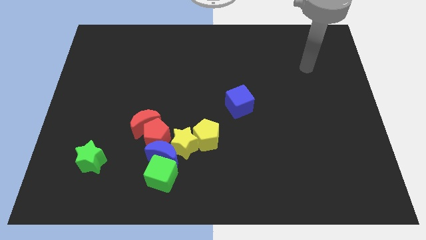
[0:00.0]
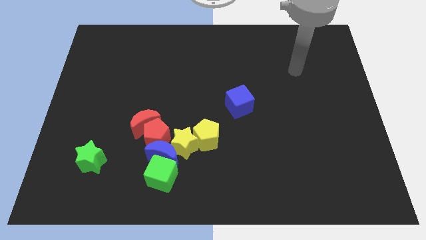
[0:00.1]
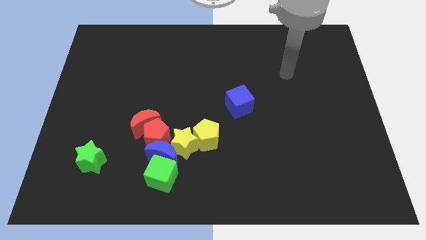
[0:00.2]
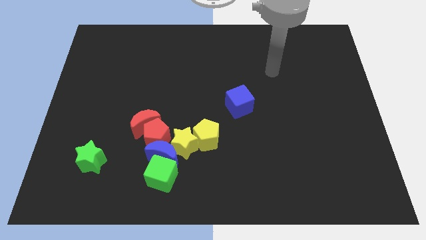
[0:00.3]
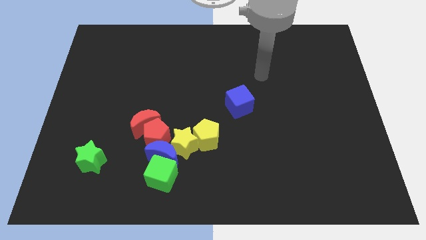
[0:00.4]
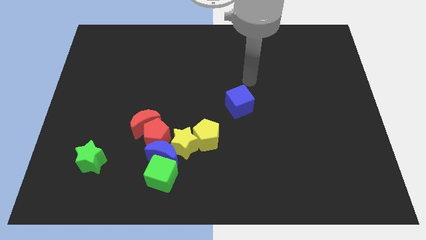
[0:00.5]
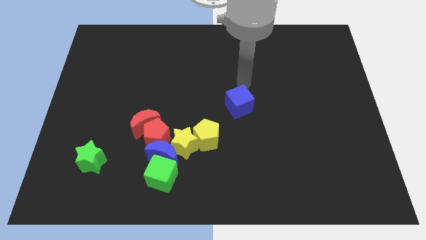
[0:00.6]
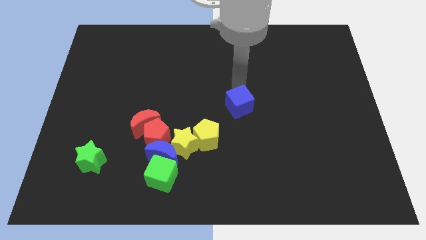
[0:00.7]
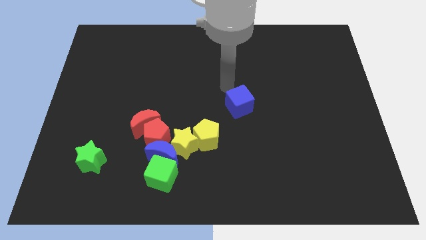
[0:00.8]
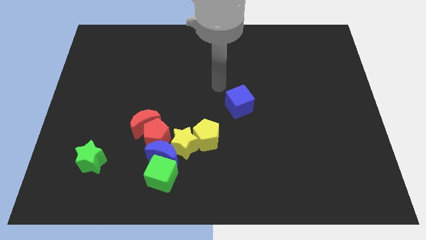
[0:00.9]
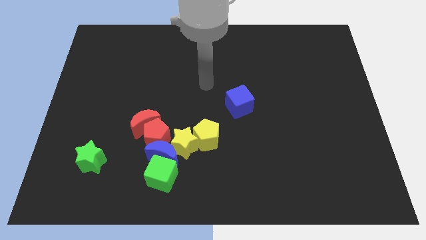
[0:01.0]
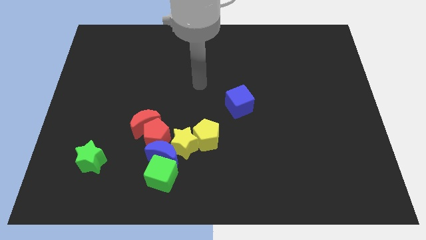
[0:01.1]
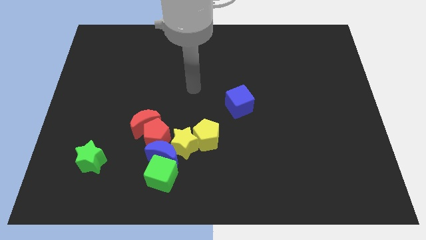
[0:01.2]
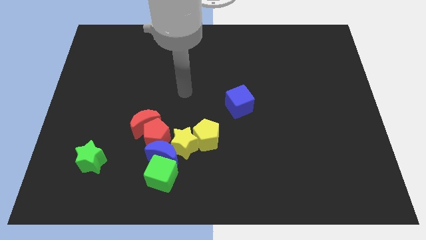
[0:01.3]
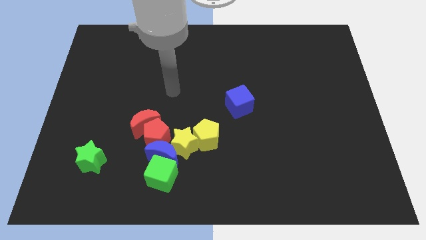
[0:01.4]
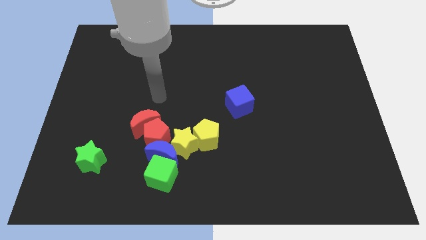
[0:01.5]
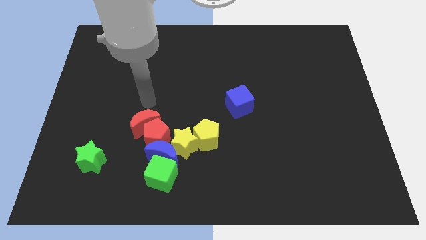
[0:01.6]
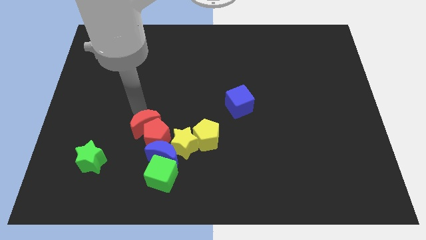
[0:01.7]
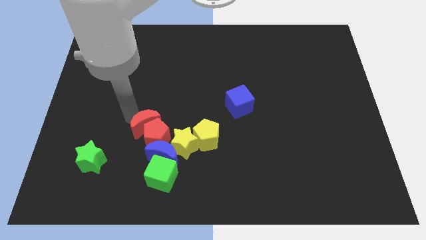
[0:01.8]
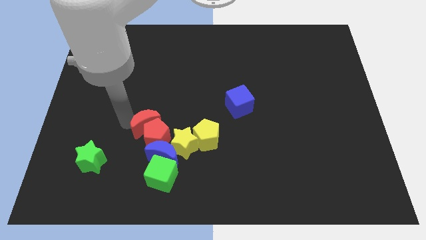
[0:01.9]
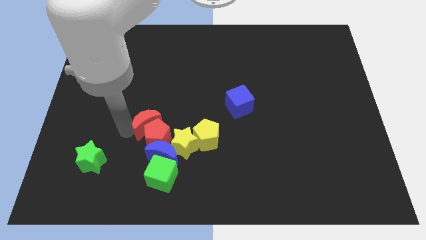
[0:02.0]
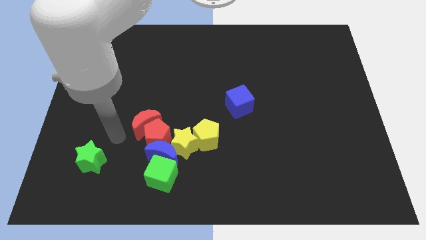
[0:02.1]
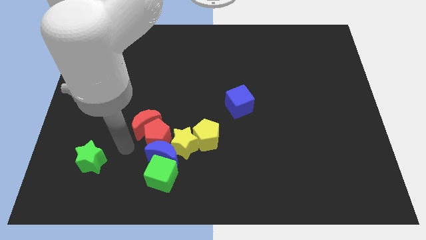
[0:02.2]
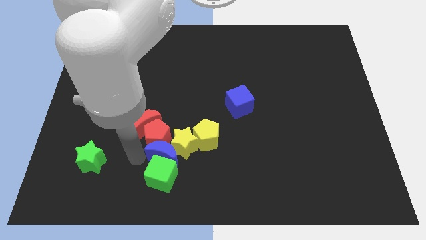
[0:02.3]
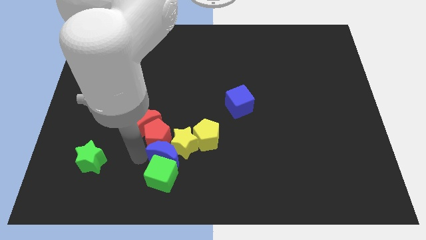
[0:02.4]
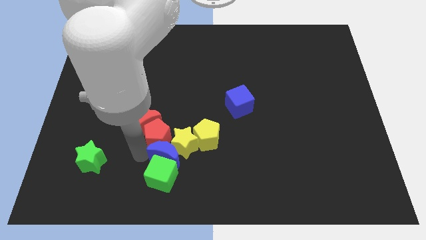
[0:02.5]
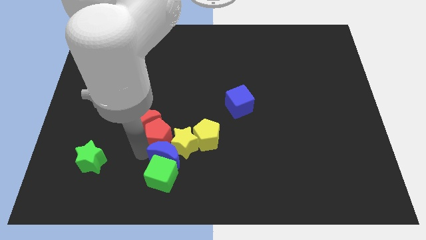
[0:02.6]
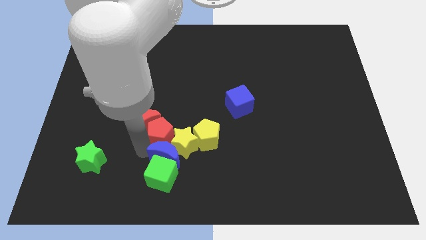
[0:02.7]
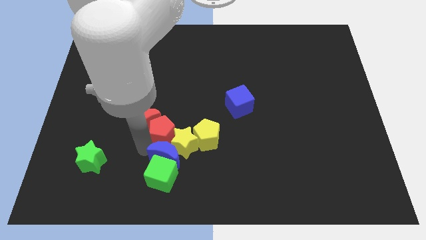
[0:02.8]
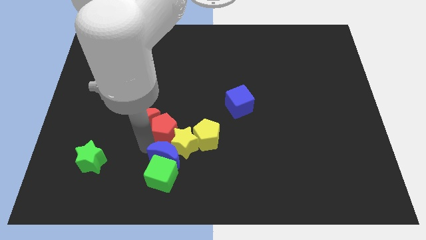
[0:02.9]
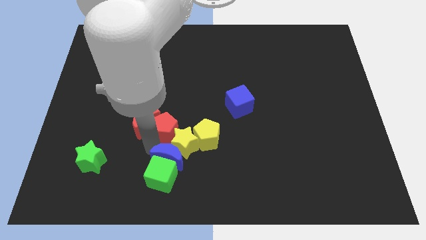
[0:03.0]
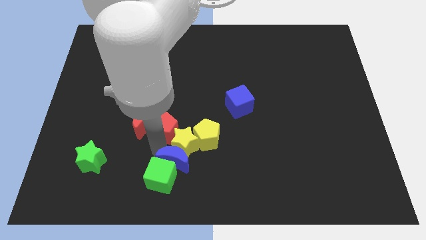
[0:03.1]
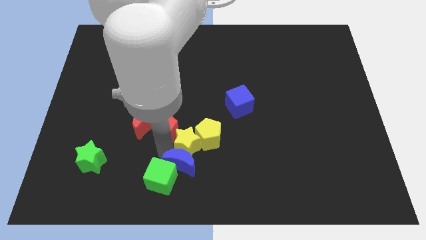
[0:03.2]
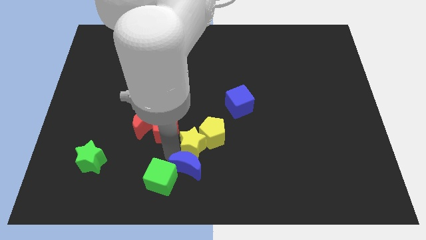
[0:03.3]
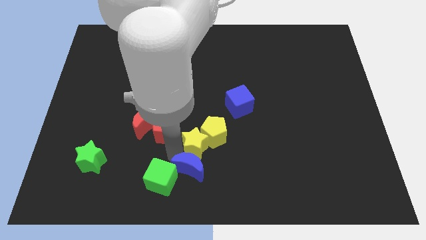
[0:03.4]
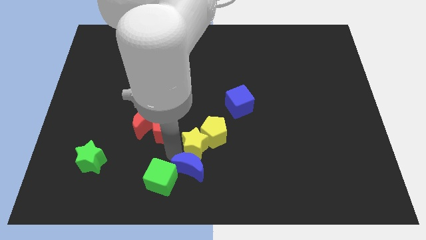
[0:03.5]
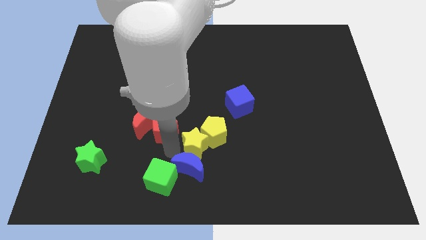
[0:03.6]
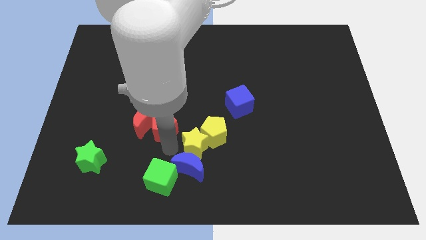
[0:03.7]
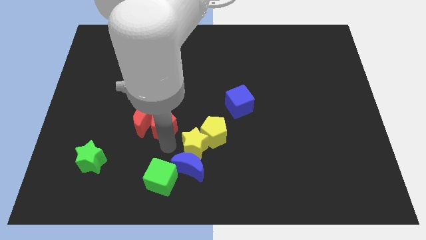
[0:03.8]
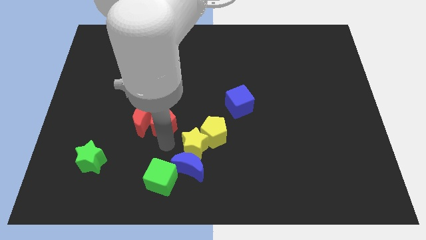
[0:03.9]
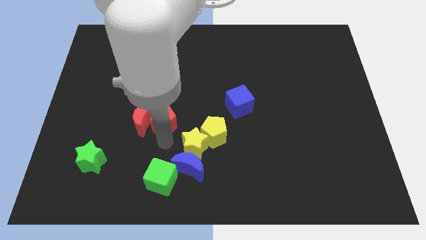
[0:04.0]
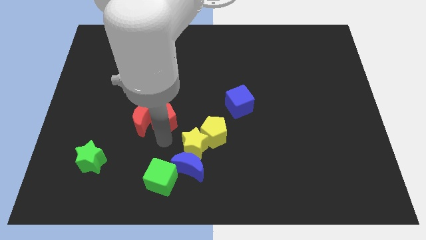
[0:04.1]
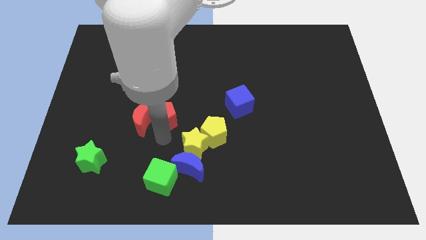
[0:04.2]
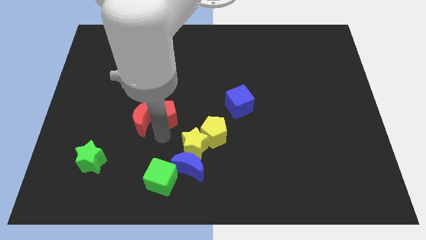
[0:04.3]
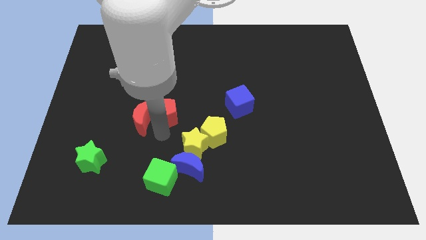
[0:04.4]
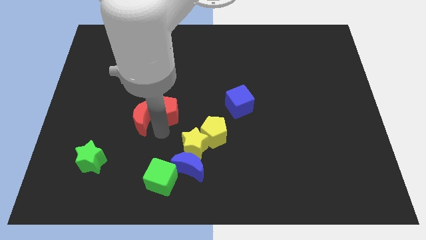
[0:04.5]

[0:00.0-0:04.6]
move the red pentagon away from the group of blocks

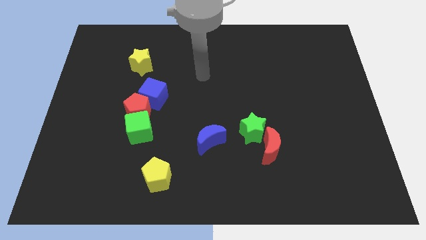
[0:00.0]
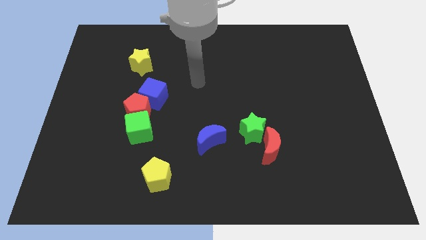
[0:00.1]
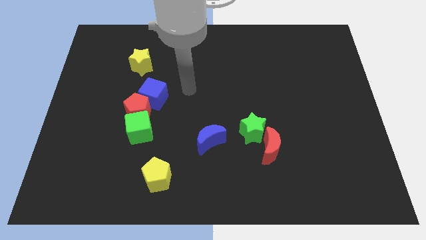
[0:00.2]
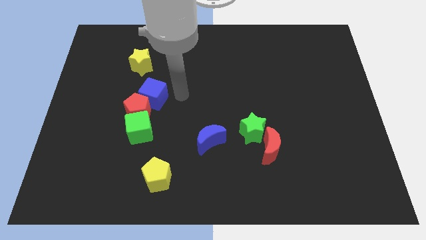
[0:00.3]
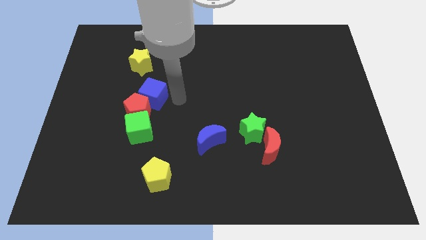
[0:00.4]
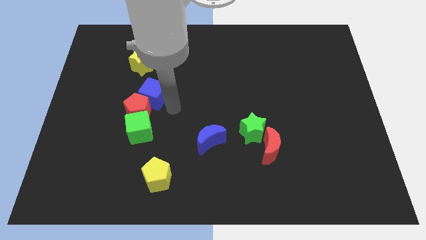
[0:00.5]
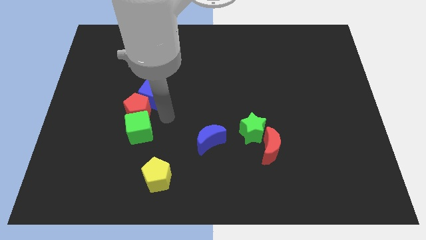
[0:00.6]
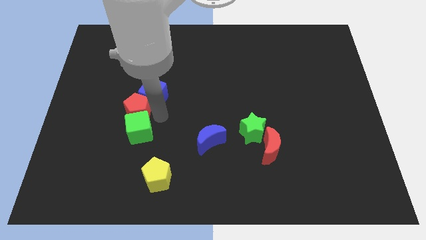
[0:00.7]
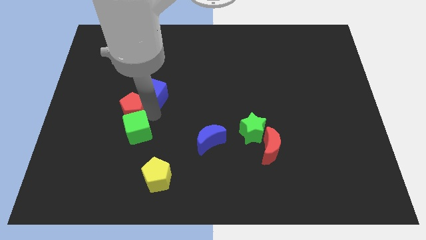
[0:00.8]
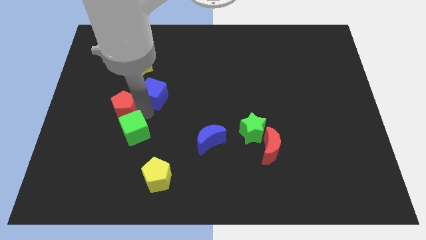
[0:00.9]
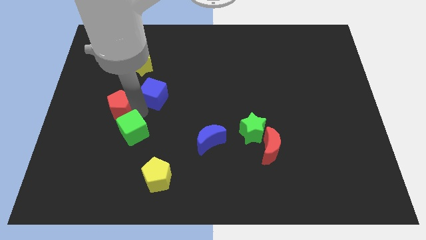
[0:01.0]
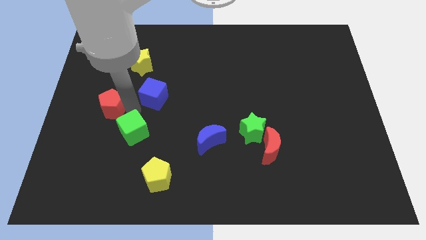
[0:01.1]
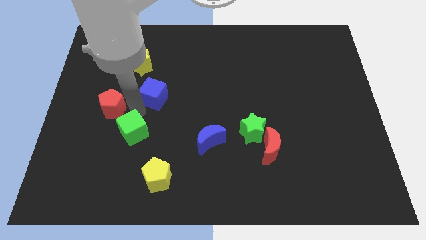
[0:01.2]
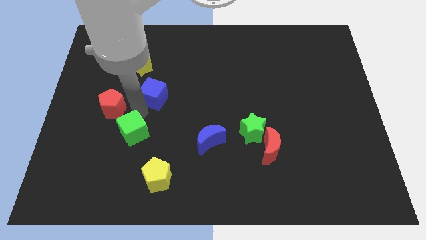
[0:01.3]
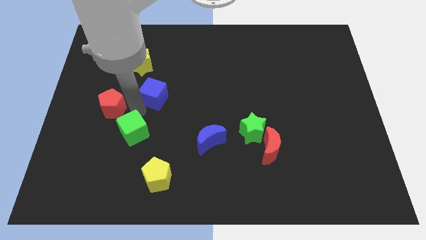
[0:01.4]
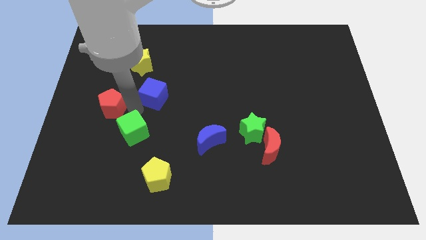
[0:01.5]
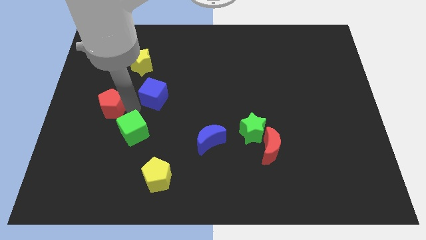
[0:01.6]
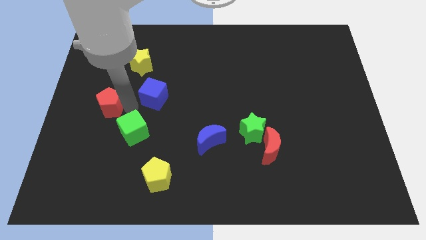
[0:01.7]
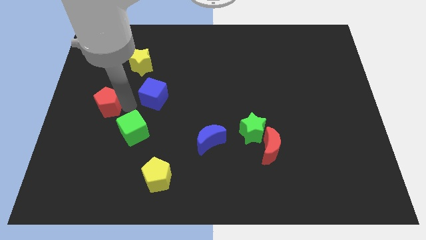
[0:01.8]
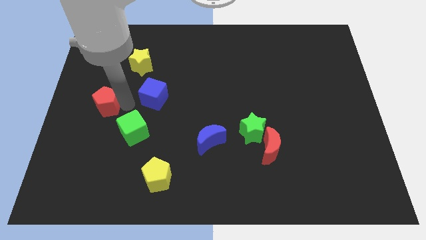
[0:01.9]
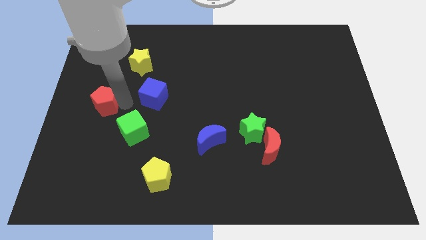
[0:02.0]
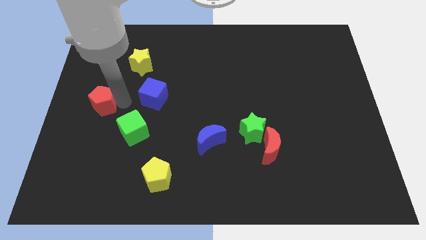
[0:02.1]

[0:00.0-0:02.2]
separate the red pentagon from the blue cube and green cube

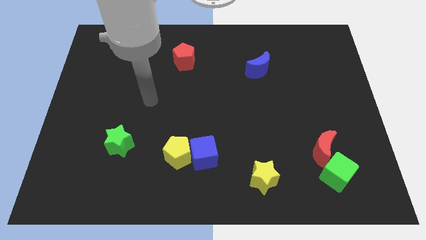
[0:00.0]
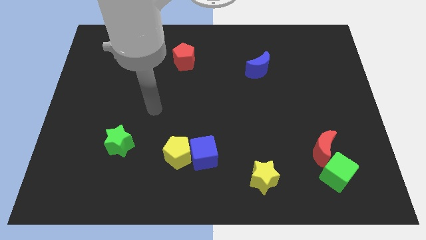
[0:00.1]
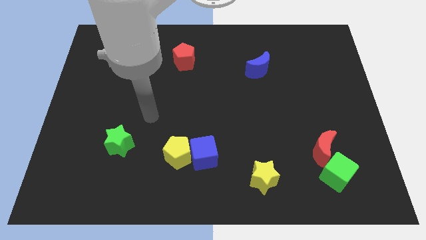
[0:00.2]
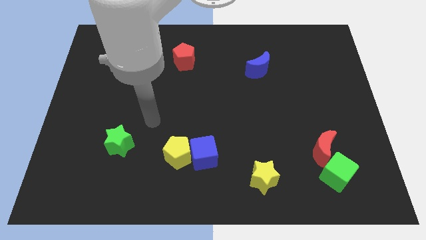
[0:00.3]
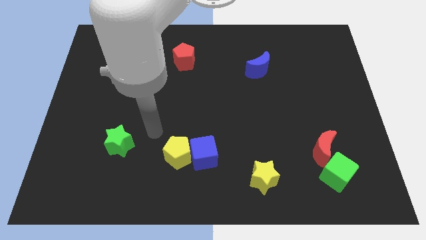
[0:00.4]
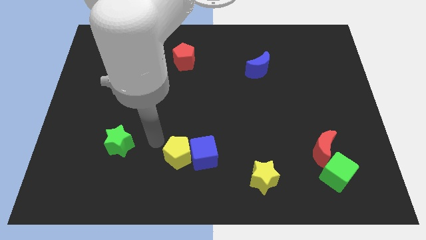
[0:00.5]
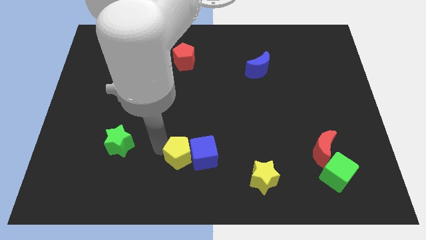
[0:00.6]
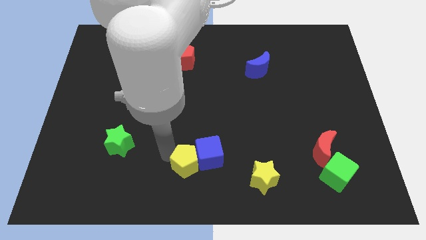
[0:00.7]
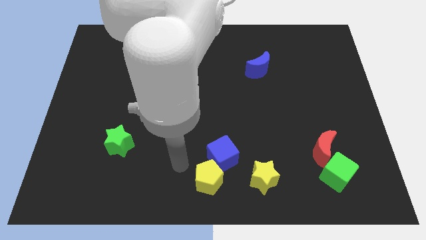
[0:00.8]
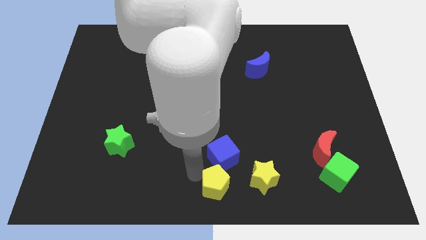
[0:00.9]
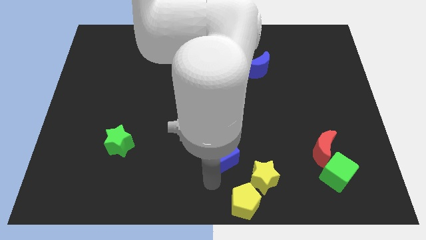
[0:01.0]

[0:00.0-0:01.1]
move the blue cube away from the yellow pentagon

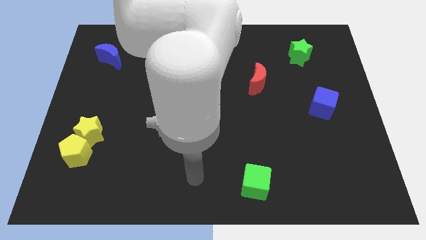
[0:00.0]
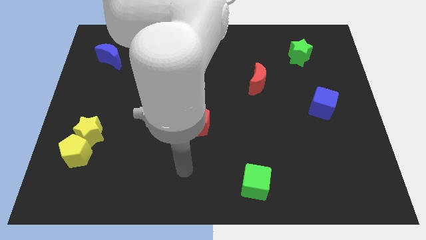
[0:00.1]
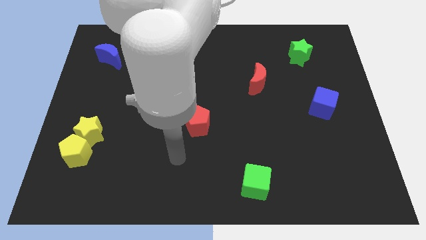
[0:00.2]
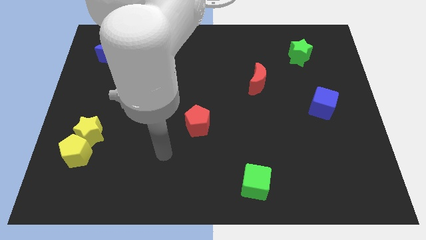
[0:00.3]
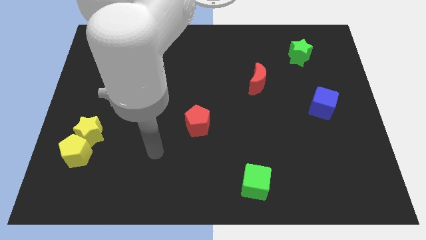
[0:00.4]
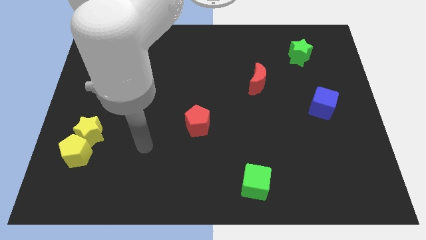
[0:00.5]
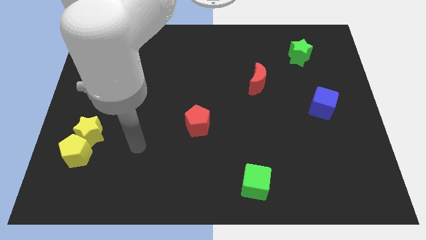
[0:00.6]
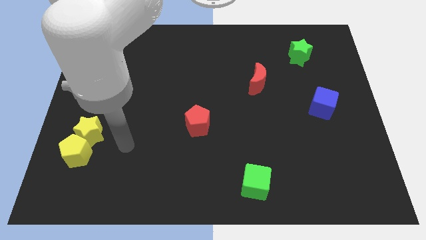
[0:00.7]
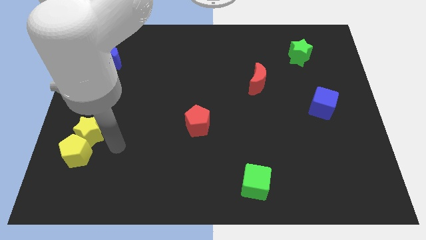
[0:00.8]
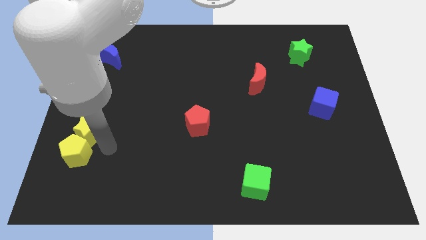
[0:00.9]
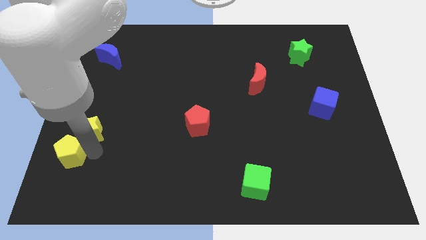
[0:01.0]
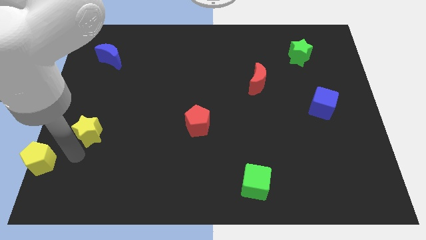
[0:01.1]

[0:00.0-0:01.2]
separate the yellow star from the yellow pentagon

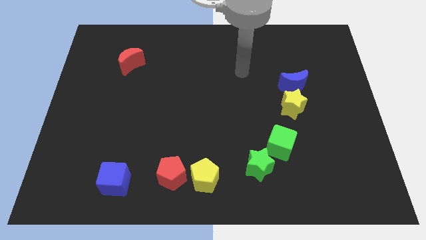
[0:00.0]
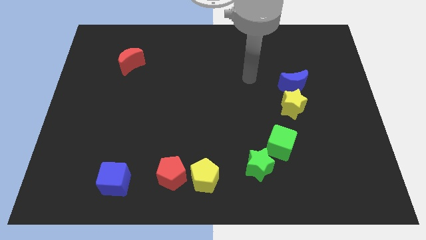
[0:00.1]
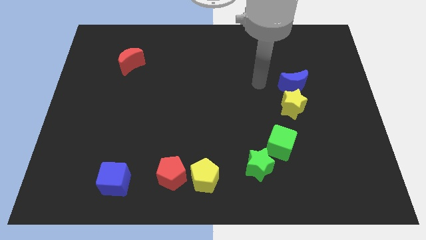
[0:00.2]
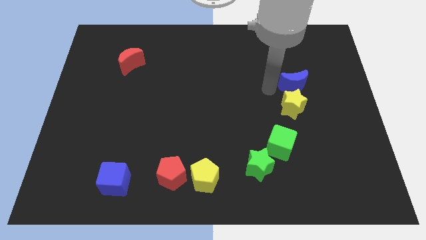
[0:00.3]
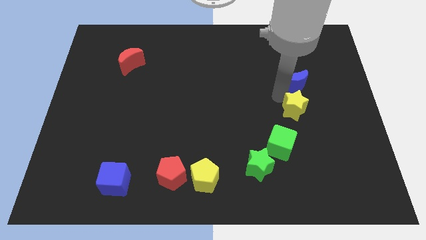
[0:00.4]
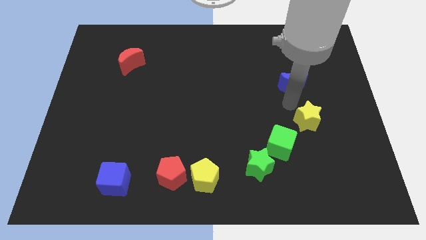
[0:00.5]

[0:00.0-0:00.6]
move the blue moon away from the yellow star
